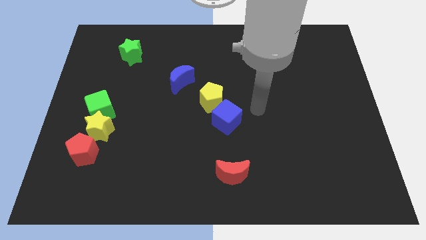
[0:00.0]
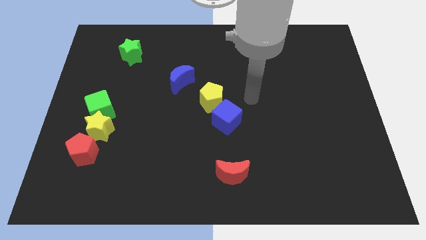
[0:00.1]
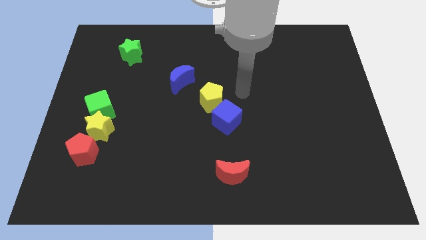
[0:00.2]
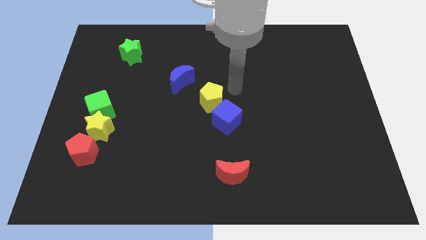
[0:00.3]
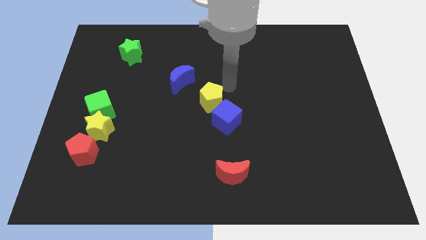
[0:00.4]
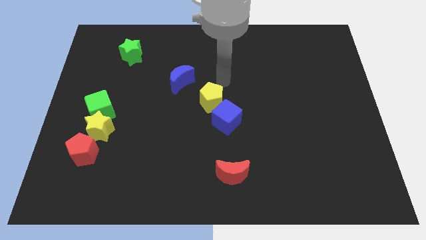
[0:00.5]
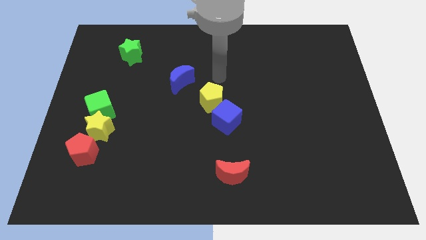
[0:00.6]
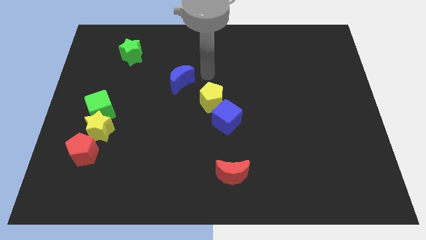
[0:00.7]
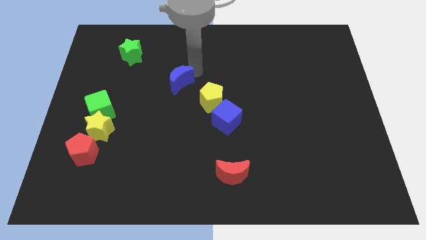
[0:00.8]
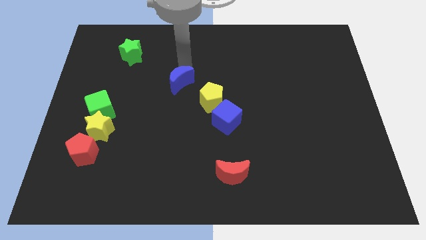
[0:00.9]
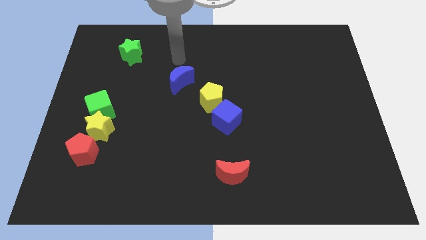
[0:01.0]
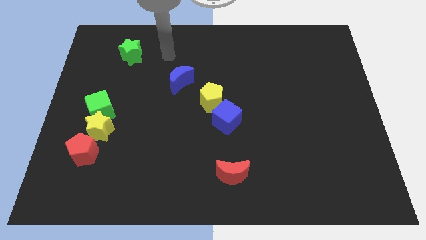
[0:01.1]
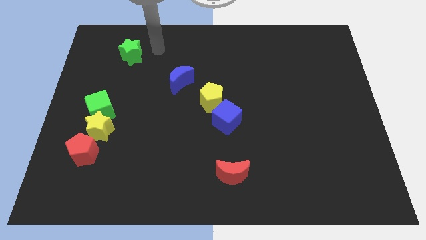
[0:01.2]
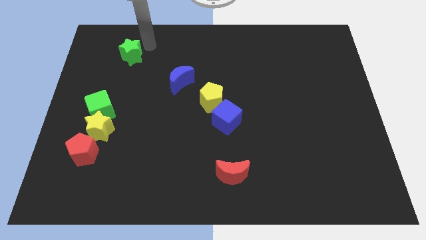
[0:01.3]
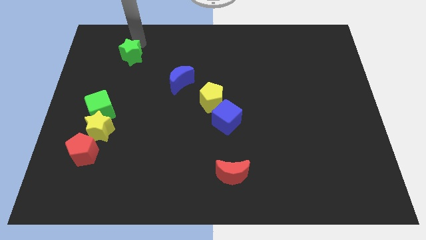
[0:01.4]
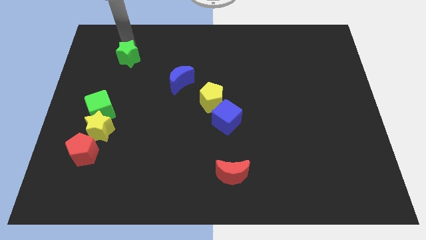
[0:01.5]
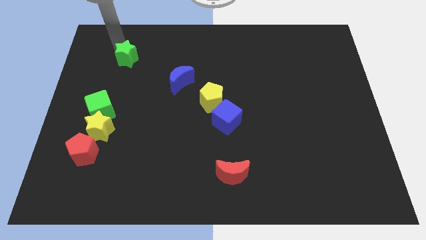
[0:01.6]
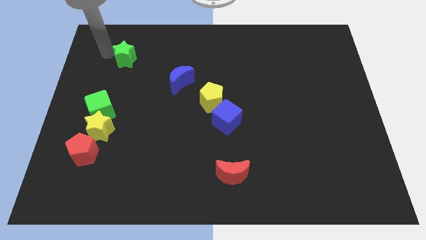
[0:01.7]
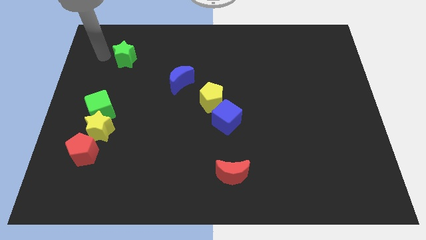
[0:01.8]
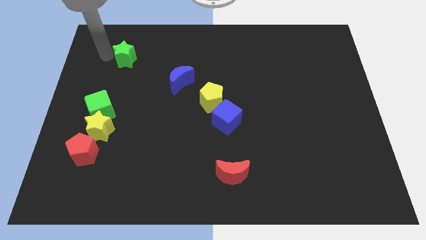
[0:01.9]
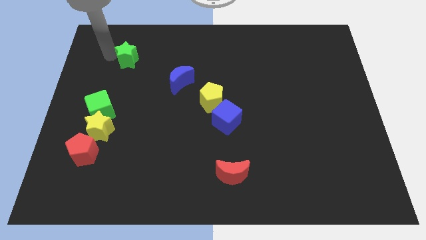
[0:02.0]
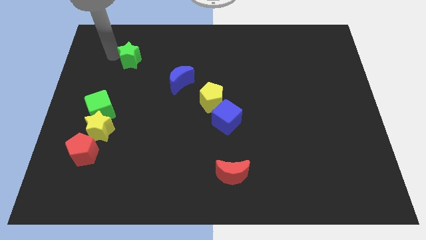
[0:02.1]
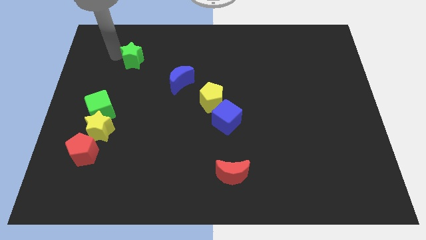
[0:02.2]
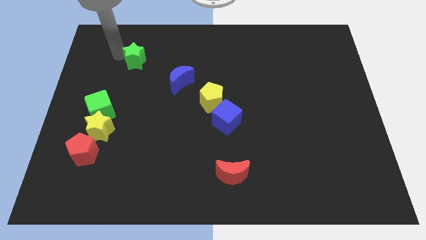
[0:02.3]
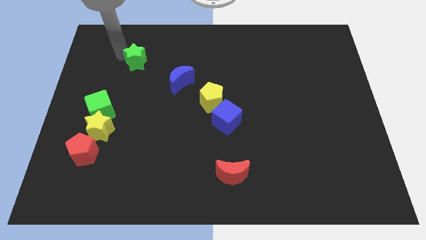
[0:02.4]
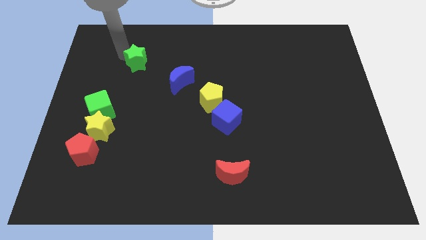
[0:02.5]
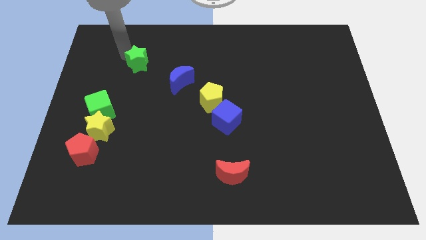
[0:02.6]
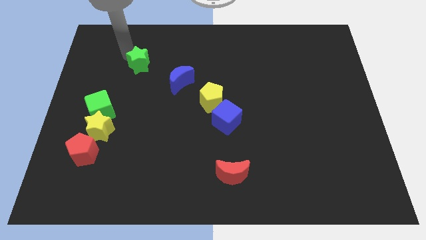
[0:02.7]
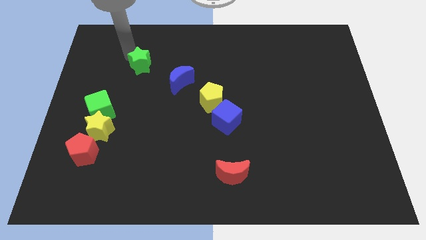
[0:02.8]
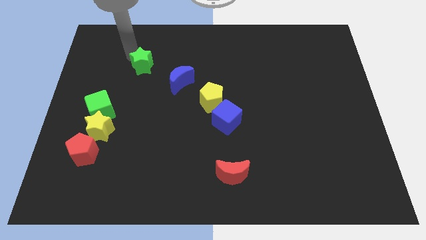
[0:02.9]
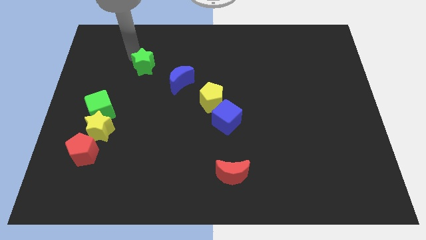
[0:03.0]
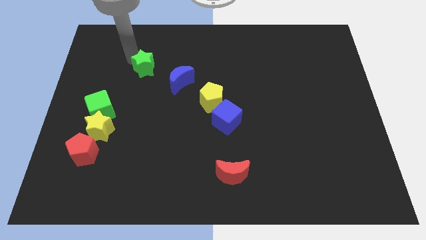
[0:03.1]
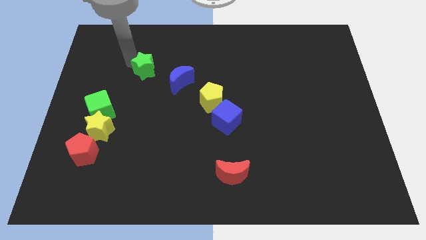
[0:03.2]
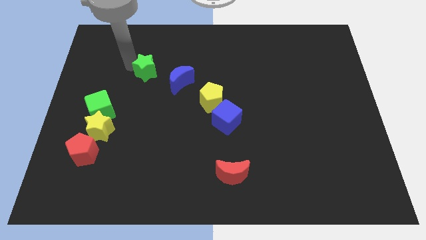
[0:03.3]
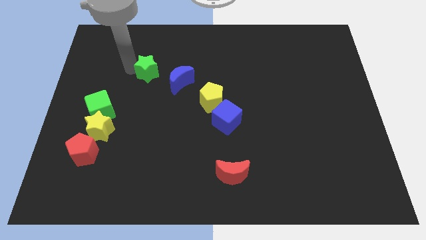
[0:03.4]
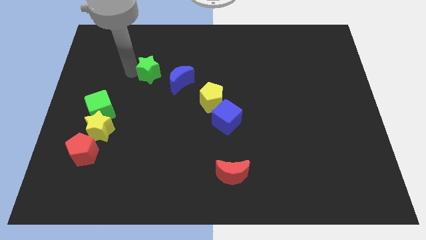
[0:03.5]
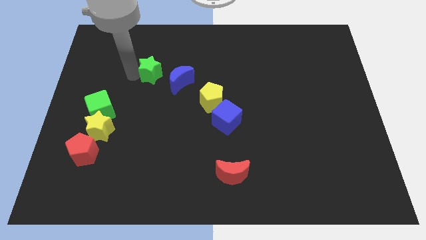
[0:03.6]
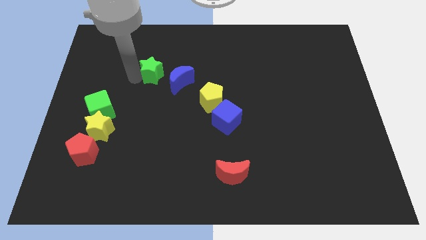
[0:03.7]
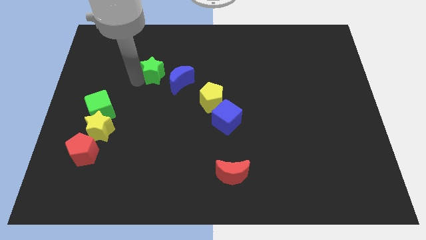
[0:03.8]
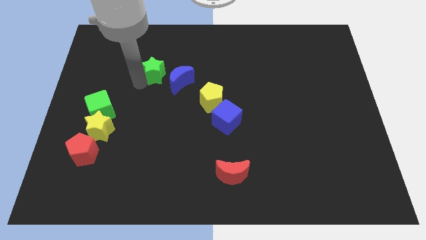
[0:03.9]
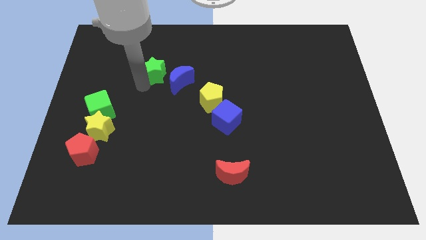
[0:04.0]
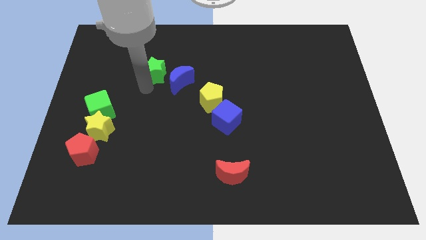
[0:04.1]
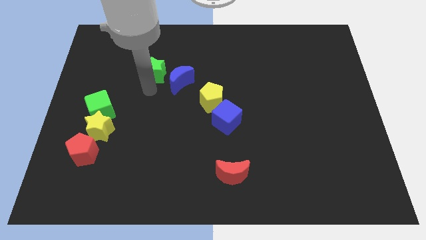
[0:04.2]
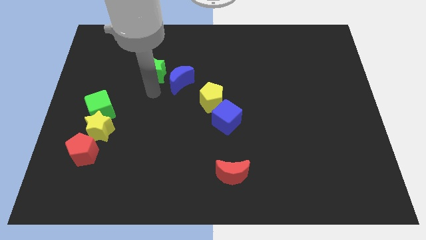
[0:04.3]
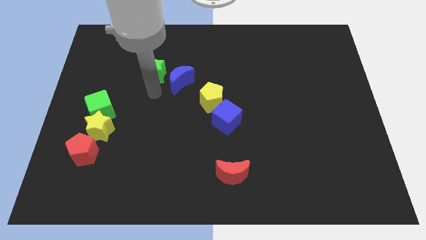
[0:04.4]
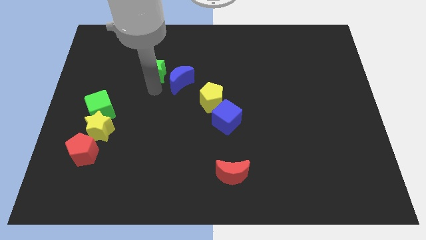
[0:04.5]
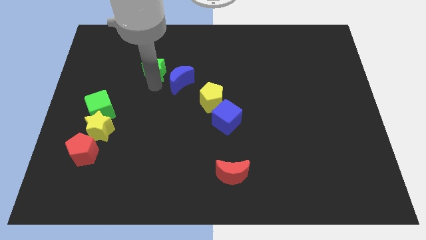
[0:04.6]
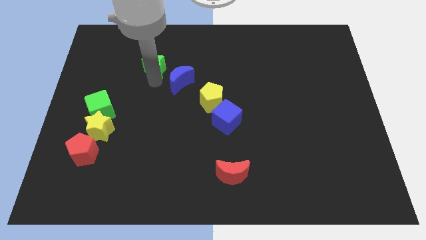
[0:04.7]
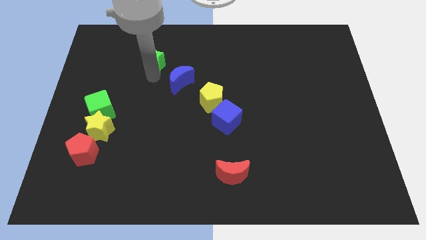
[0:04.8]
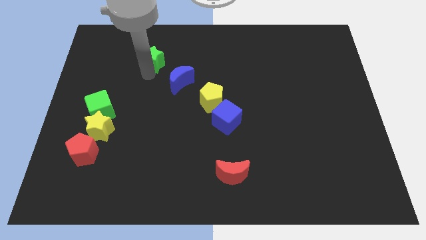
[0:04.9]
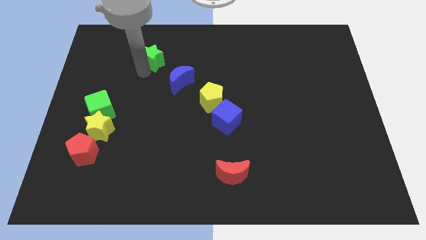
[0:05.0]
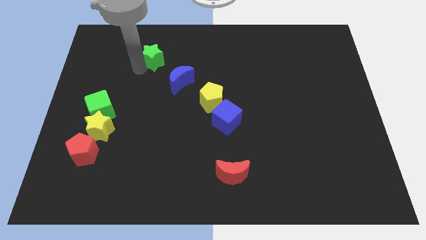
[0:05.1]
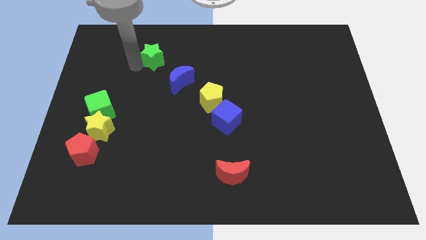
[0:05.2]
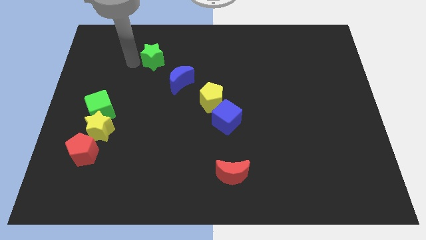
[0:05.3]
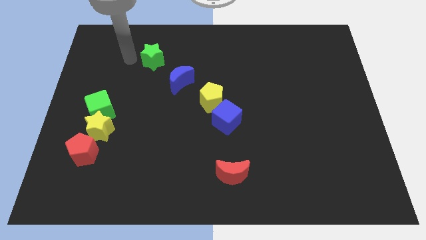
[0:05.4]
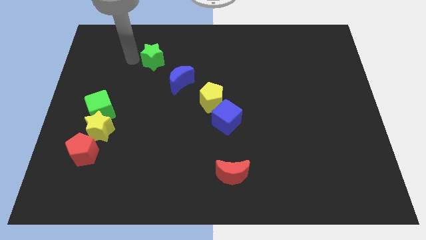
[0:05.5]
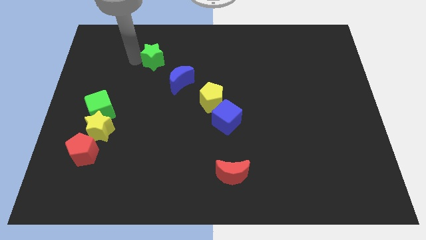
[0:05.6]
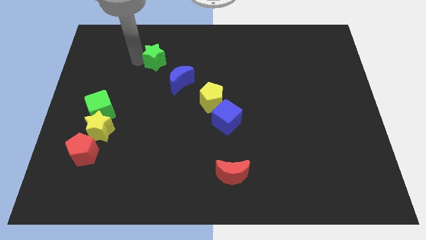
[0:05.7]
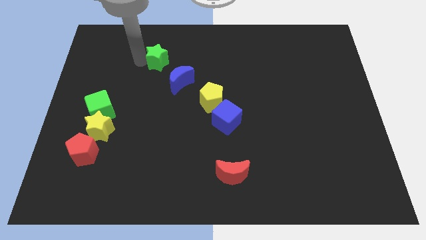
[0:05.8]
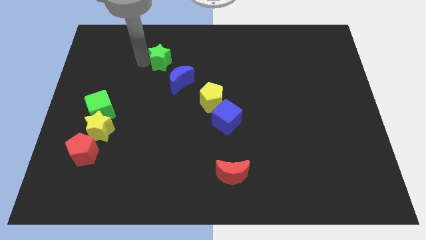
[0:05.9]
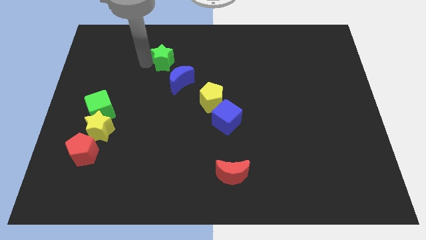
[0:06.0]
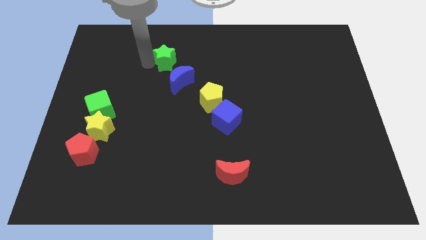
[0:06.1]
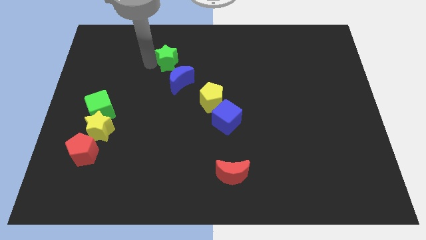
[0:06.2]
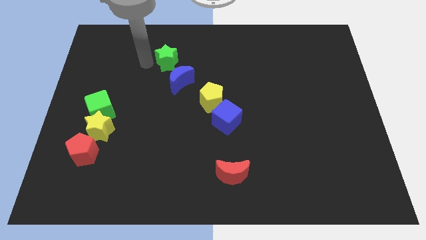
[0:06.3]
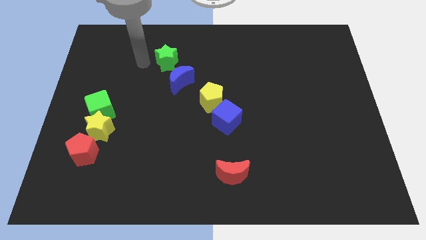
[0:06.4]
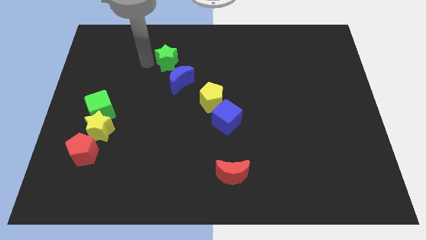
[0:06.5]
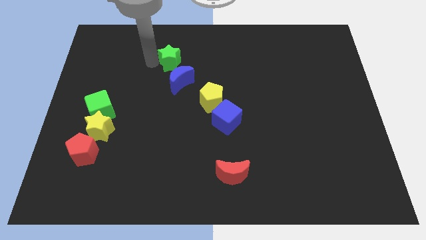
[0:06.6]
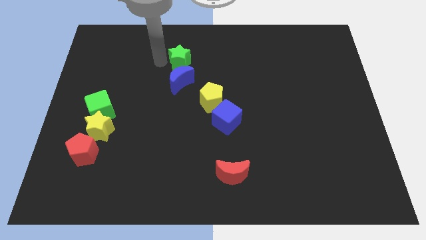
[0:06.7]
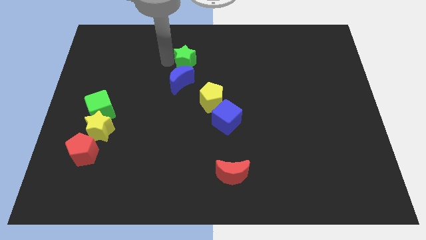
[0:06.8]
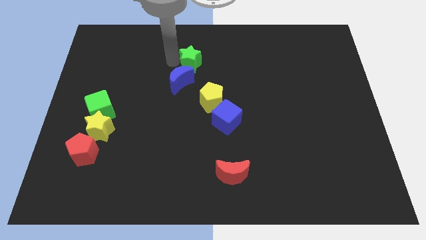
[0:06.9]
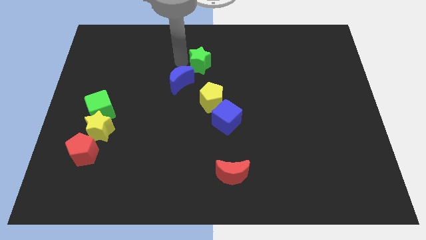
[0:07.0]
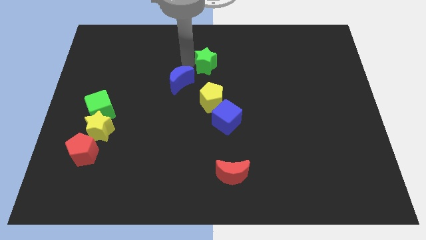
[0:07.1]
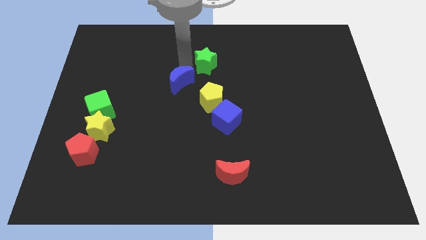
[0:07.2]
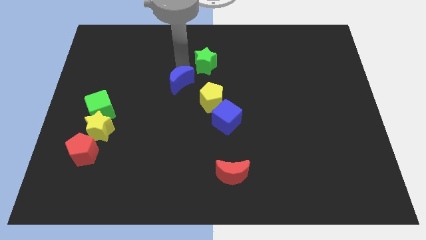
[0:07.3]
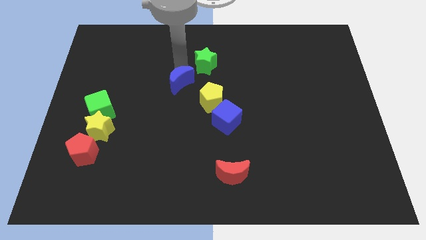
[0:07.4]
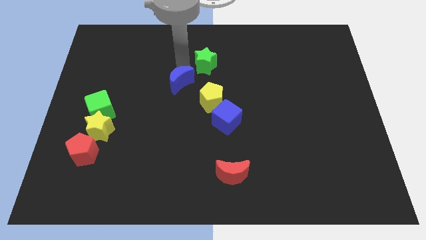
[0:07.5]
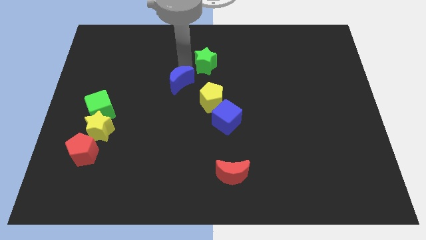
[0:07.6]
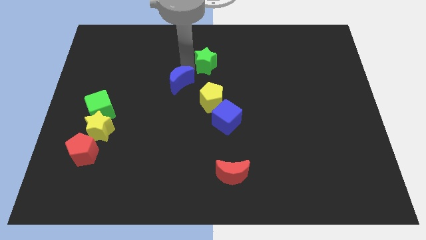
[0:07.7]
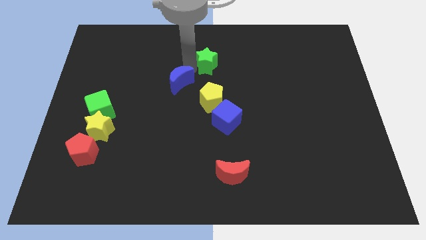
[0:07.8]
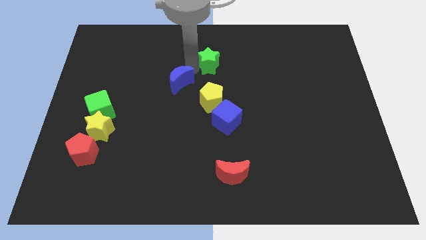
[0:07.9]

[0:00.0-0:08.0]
push the green star to the right

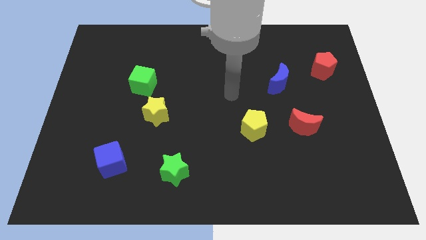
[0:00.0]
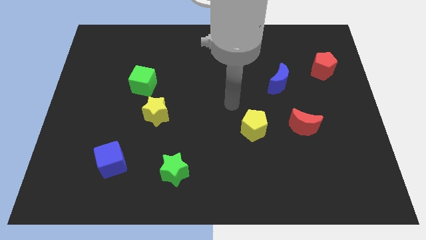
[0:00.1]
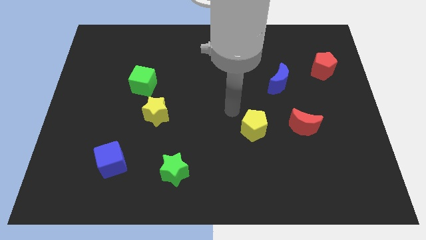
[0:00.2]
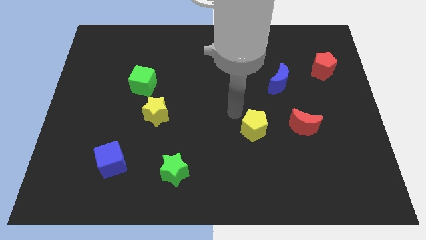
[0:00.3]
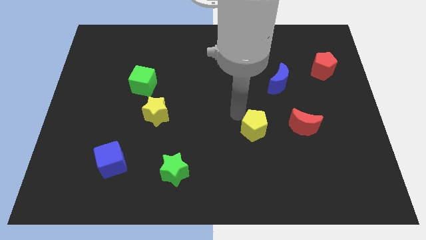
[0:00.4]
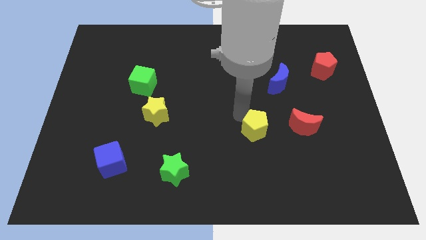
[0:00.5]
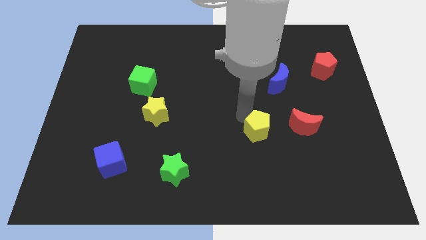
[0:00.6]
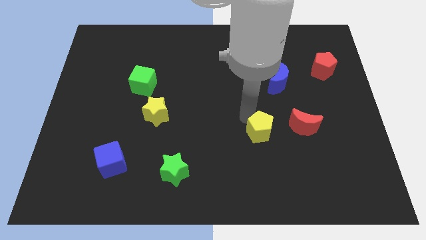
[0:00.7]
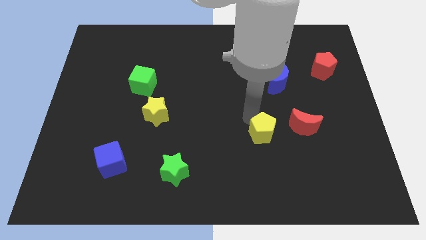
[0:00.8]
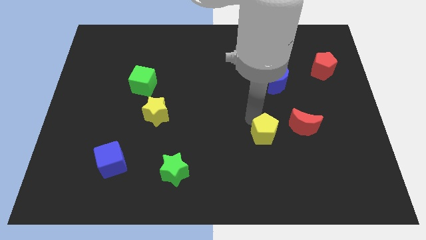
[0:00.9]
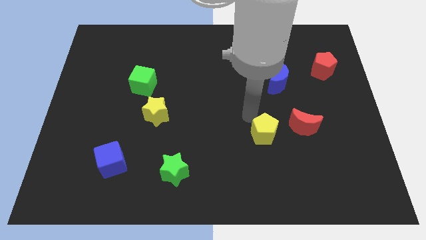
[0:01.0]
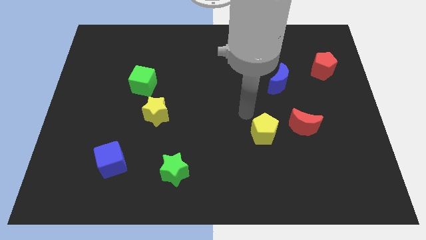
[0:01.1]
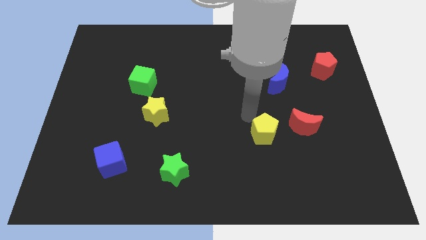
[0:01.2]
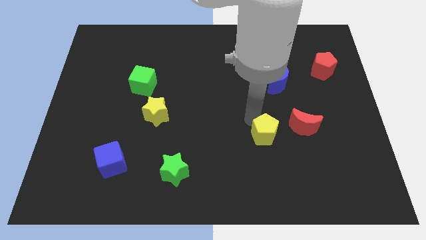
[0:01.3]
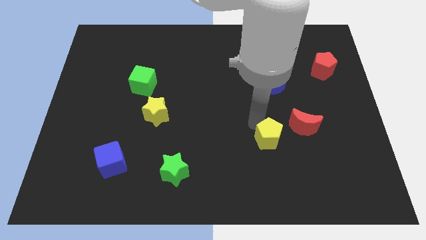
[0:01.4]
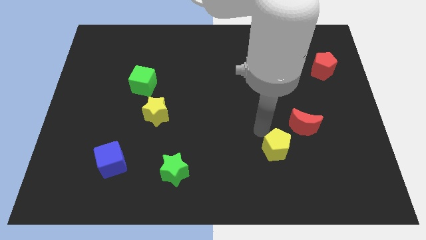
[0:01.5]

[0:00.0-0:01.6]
push the yellow pentagon down and to the right diagonally a bit
